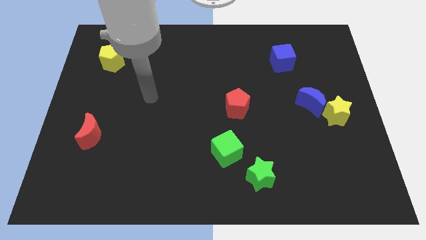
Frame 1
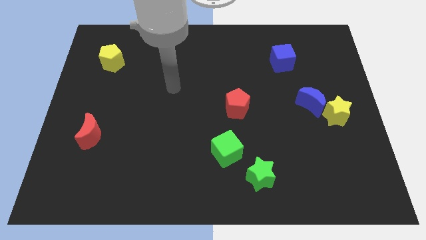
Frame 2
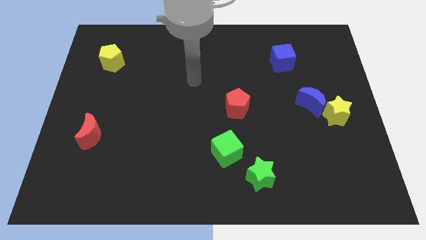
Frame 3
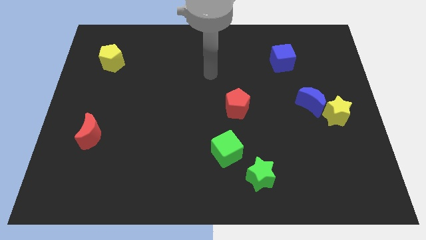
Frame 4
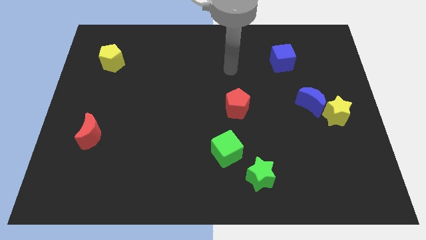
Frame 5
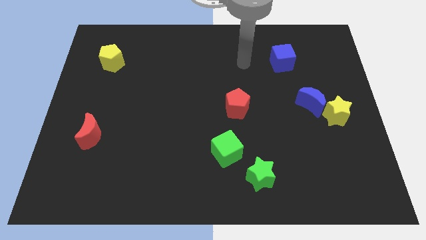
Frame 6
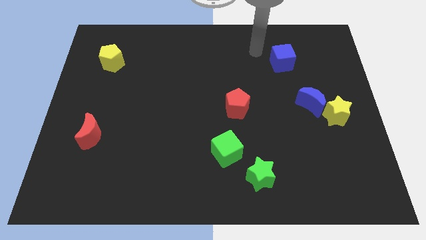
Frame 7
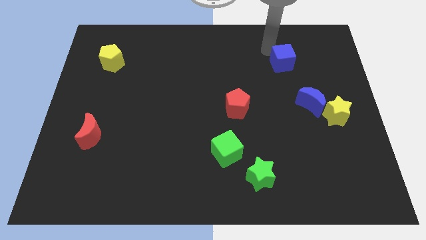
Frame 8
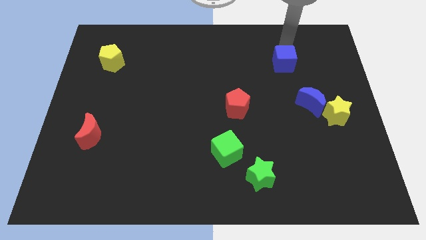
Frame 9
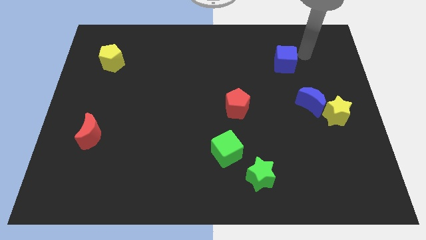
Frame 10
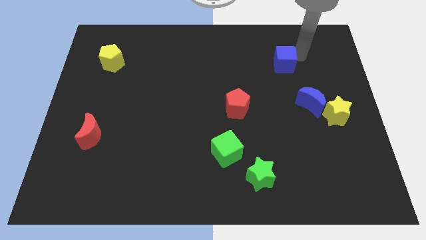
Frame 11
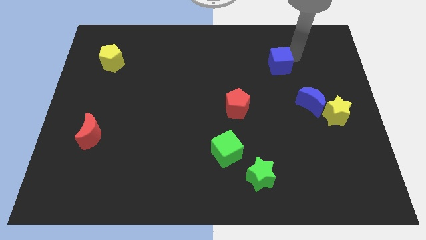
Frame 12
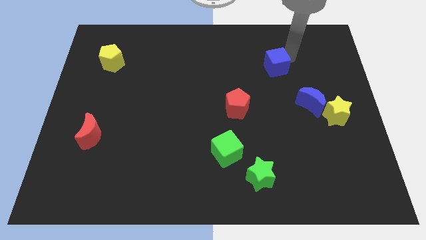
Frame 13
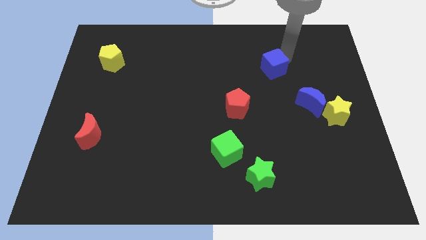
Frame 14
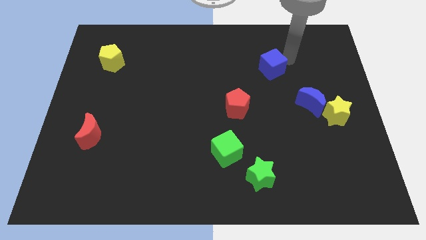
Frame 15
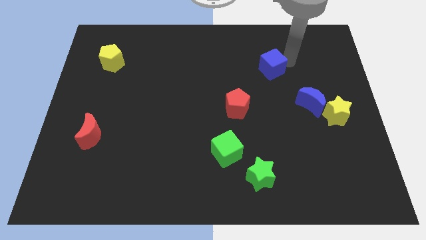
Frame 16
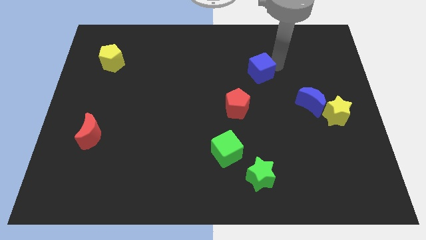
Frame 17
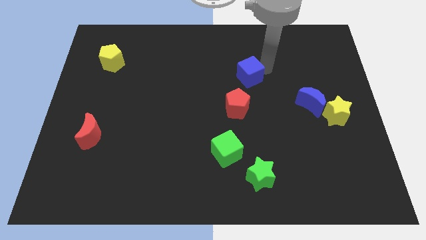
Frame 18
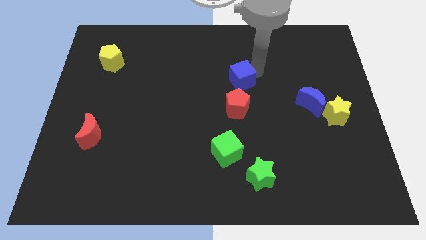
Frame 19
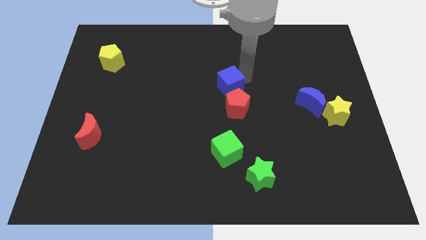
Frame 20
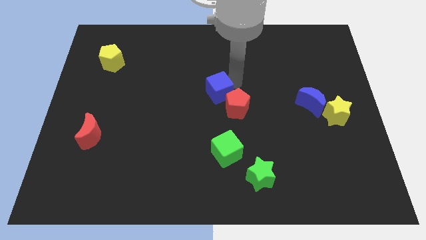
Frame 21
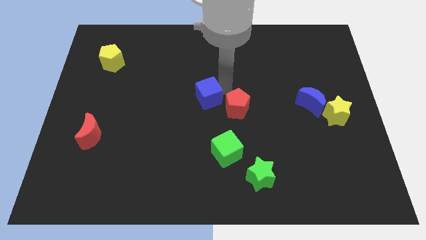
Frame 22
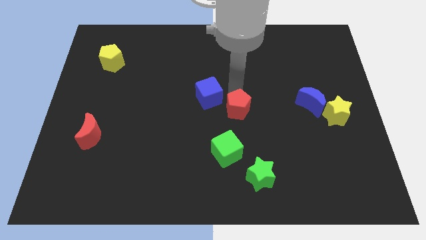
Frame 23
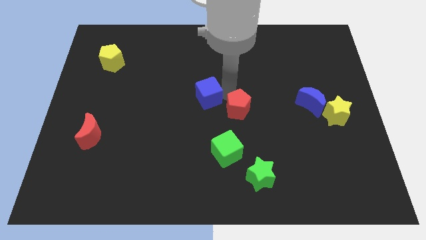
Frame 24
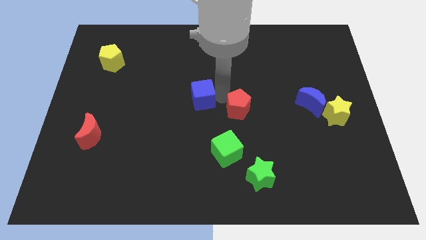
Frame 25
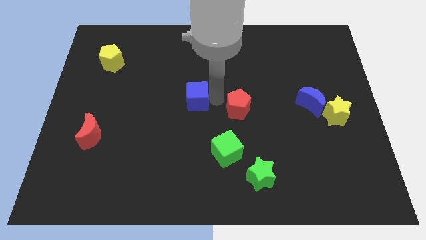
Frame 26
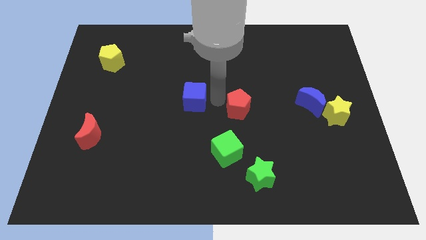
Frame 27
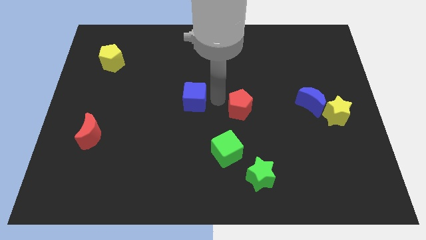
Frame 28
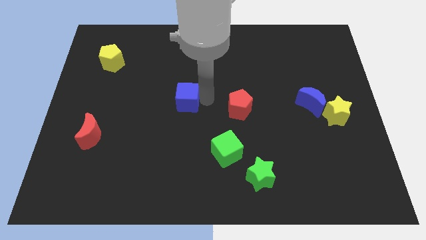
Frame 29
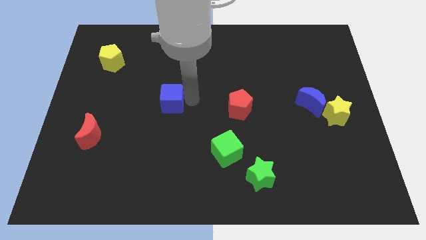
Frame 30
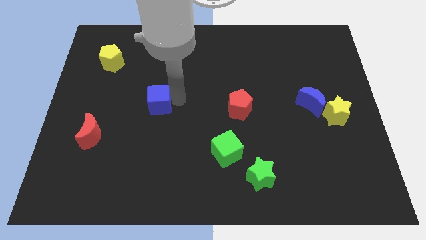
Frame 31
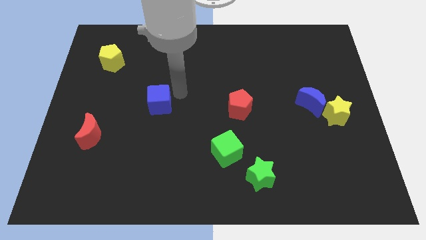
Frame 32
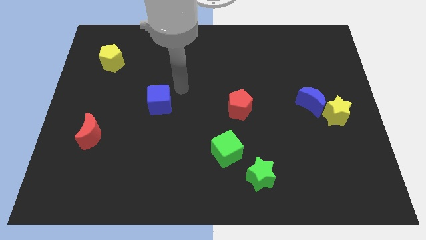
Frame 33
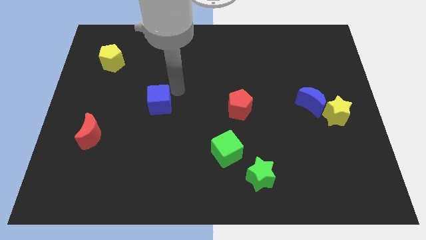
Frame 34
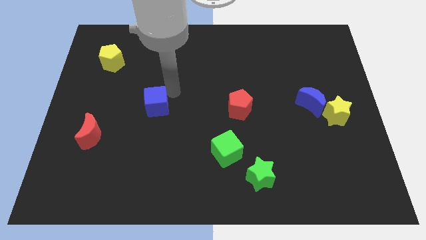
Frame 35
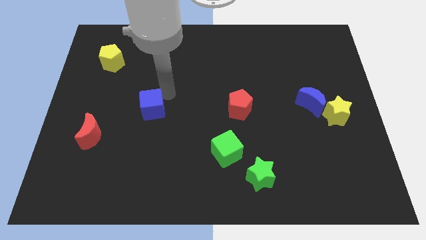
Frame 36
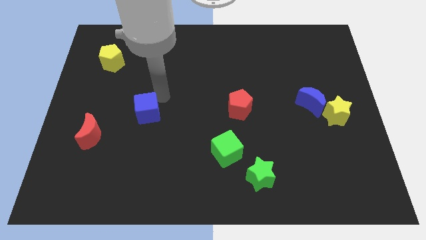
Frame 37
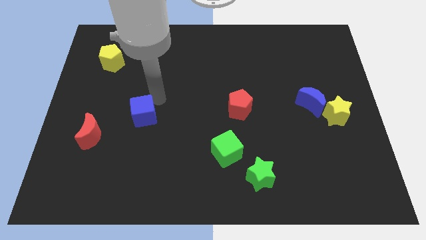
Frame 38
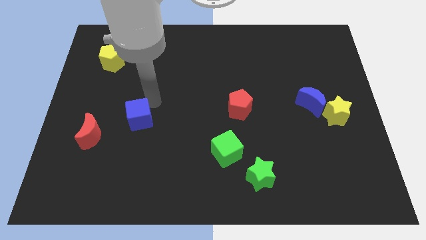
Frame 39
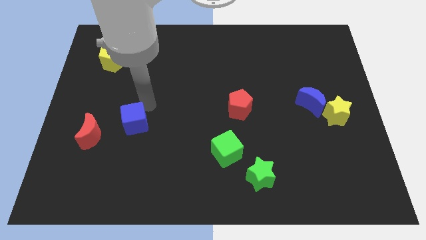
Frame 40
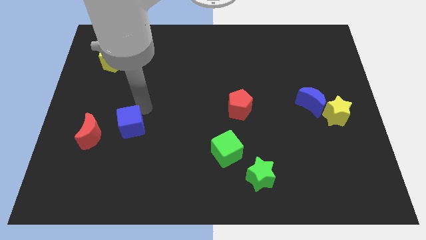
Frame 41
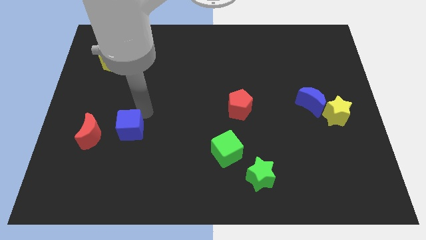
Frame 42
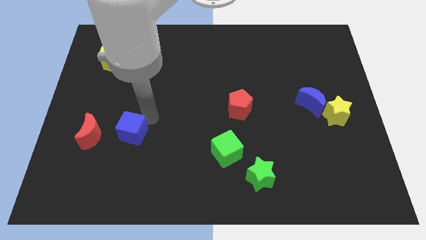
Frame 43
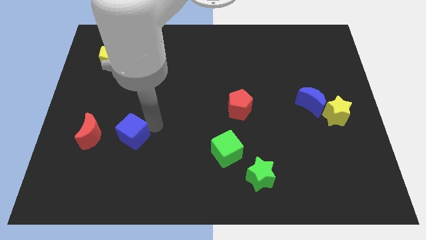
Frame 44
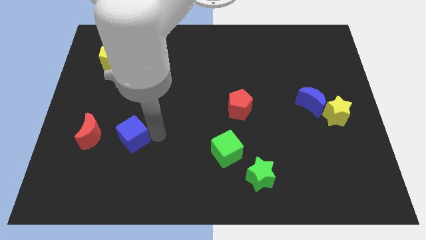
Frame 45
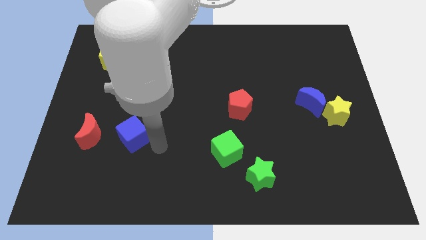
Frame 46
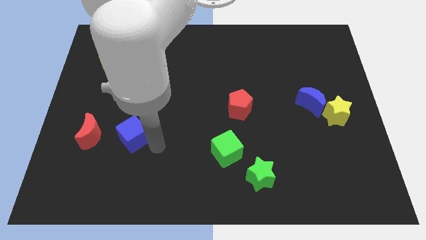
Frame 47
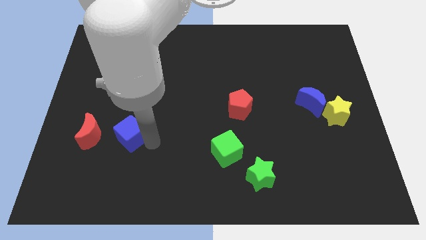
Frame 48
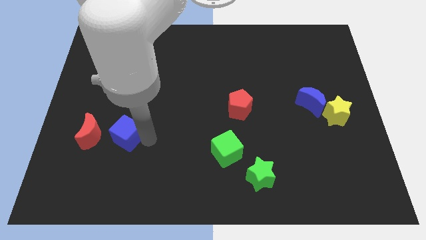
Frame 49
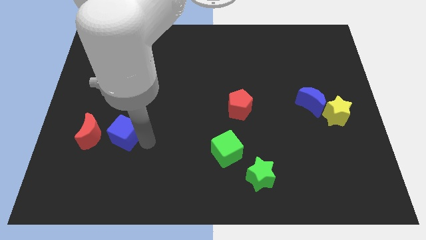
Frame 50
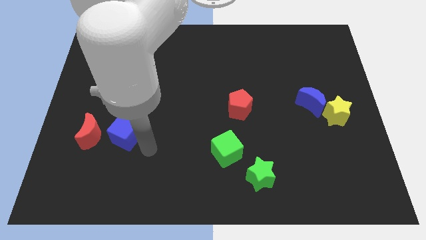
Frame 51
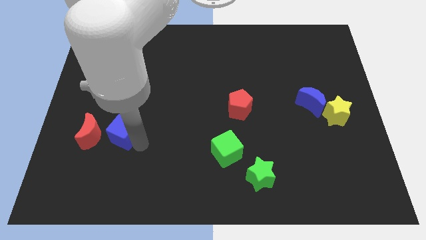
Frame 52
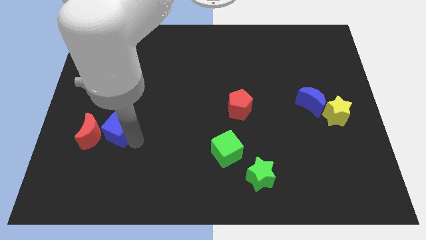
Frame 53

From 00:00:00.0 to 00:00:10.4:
move the blue cube close to the red moon

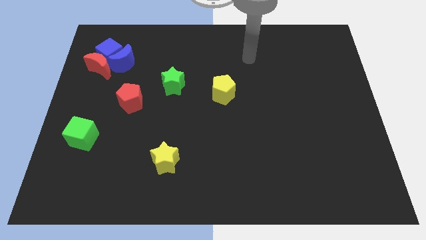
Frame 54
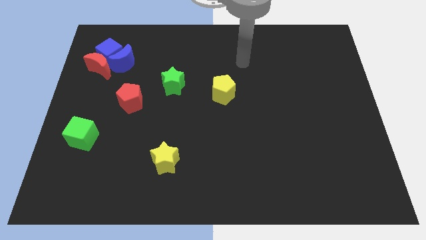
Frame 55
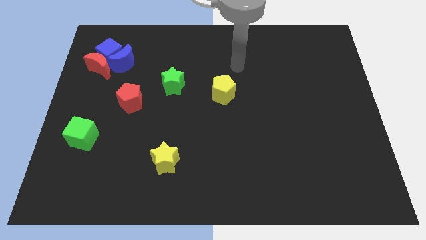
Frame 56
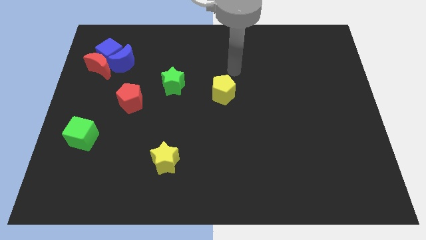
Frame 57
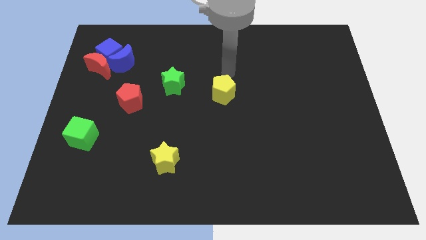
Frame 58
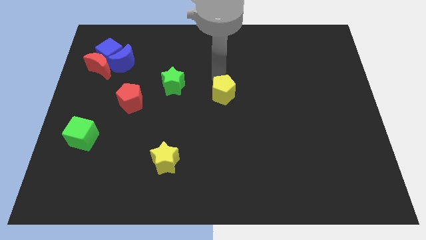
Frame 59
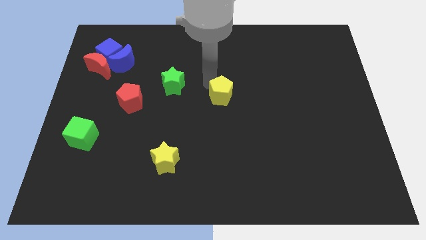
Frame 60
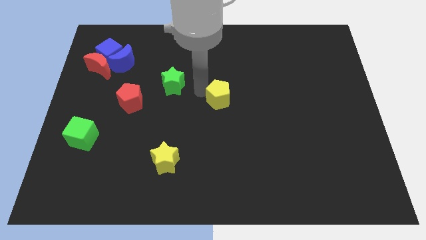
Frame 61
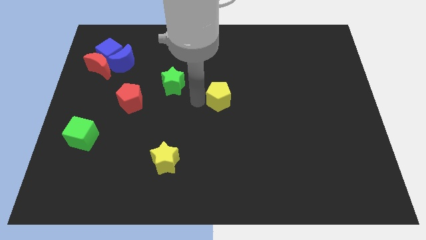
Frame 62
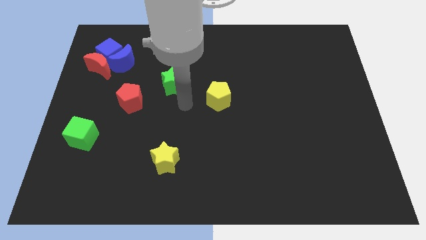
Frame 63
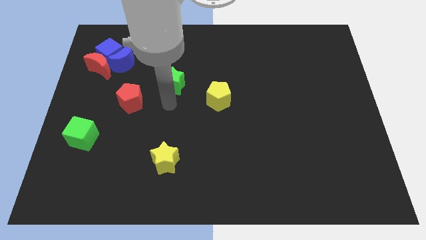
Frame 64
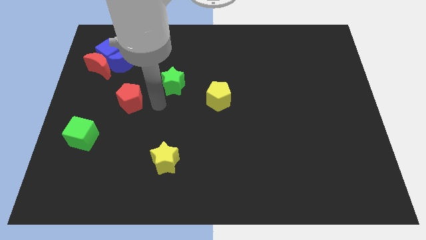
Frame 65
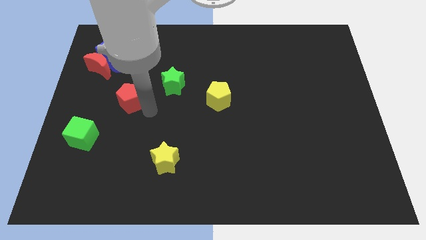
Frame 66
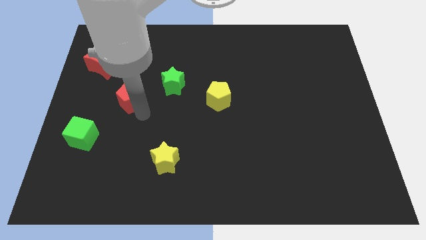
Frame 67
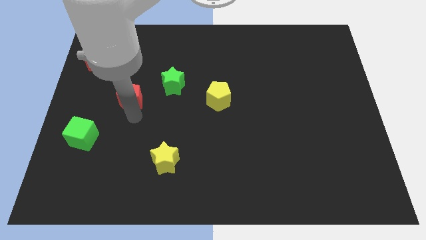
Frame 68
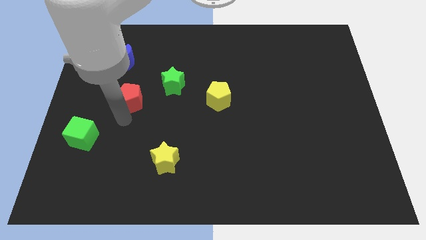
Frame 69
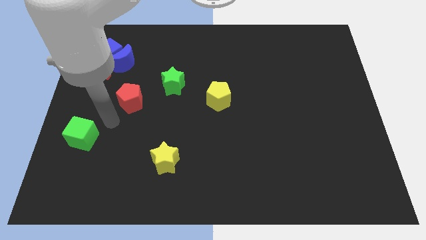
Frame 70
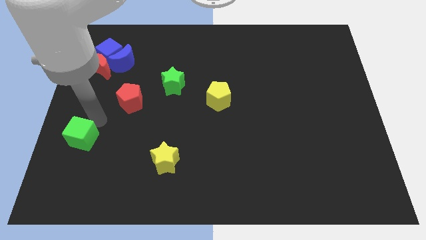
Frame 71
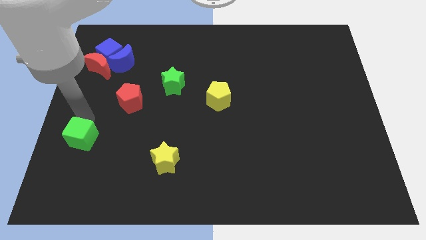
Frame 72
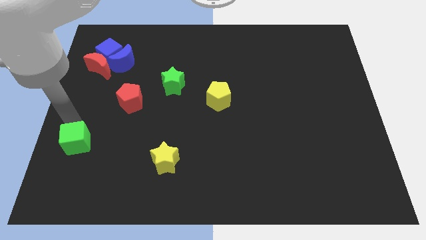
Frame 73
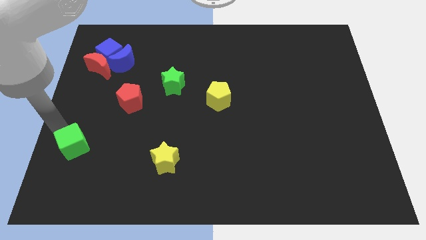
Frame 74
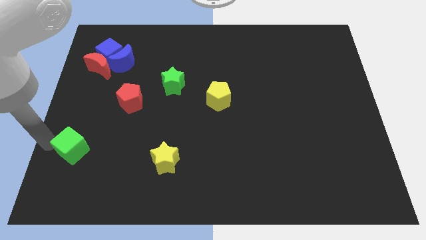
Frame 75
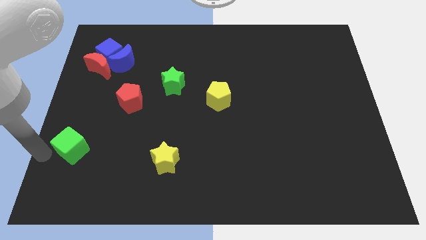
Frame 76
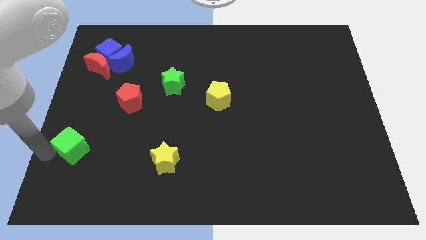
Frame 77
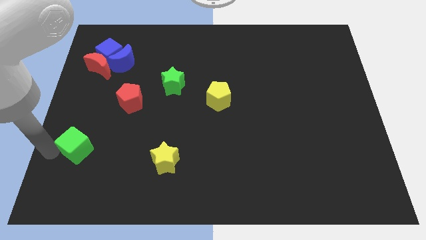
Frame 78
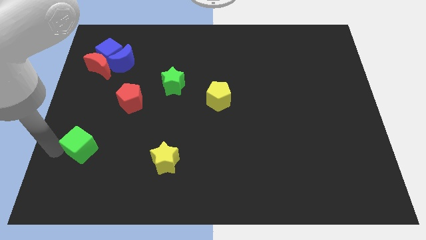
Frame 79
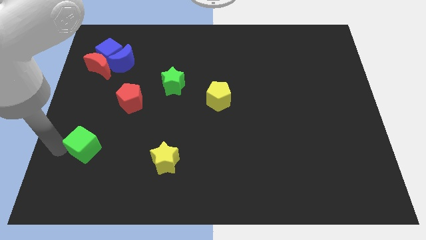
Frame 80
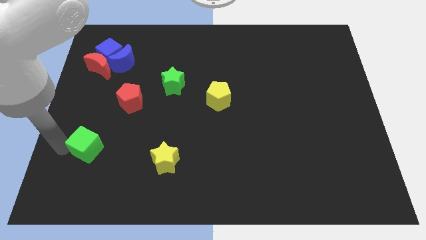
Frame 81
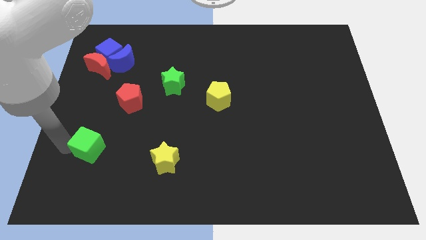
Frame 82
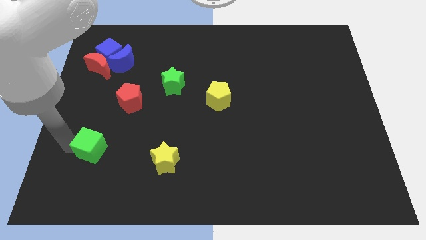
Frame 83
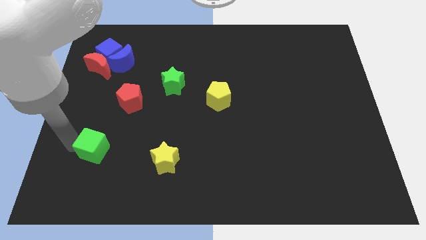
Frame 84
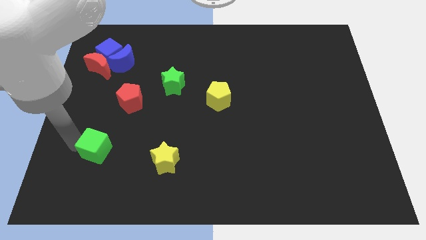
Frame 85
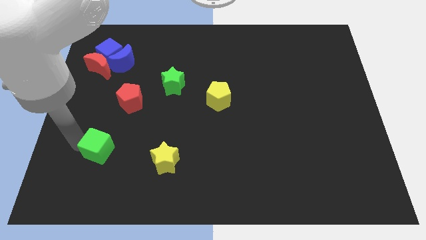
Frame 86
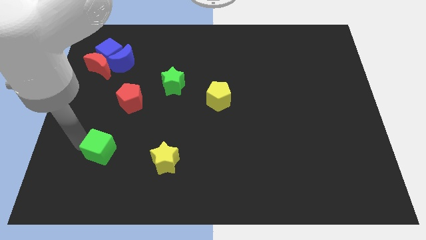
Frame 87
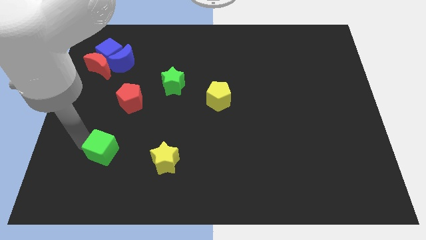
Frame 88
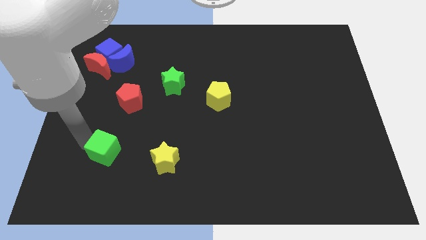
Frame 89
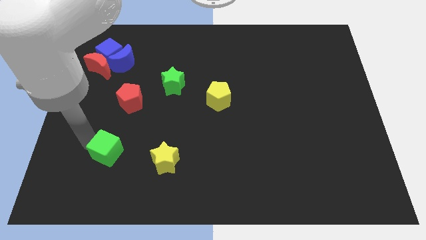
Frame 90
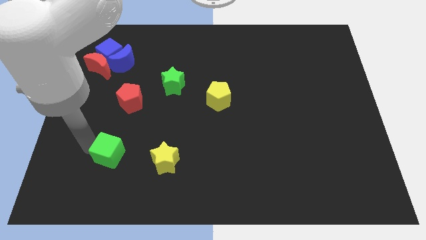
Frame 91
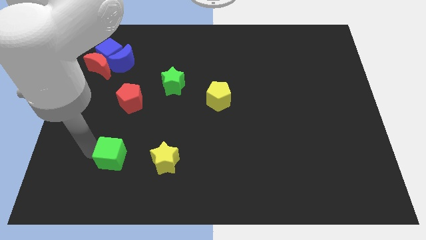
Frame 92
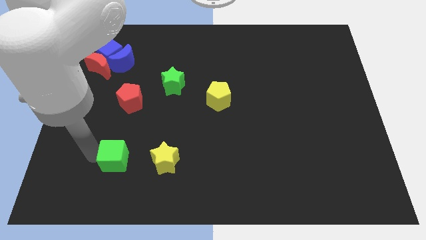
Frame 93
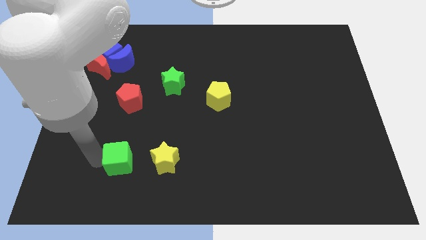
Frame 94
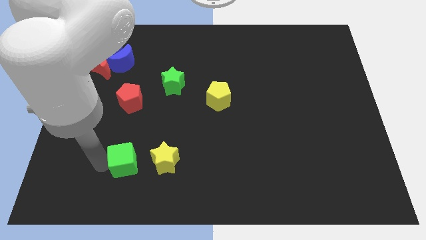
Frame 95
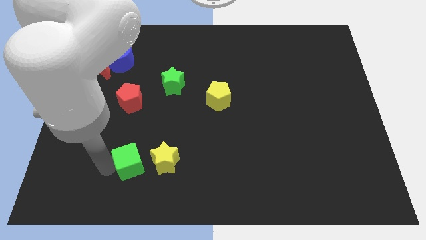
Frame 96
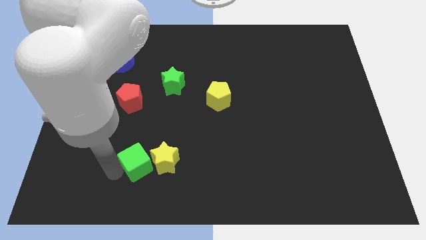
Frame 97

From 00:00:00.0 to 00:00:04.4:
move the green cube towards the yellow star
